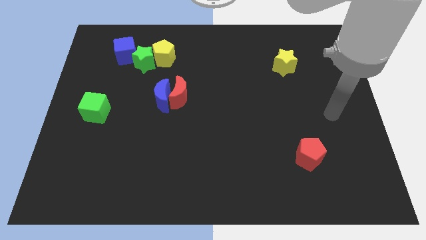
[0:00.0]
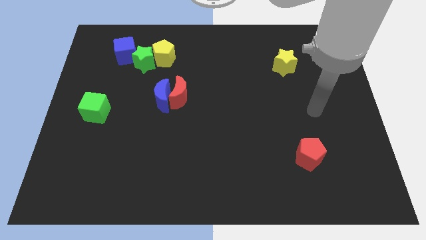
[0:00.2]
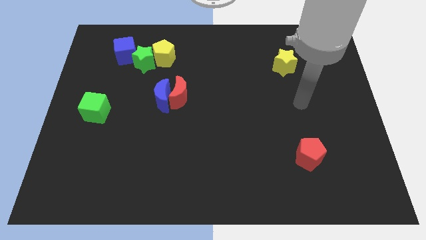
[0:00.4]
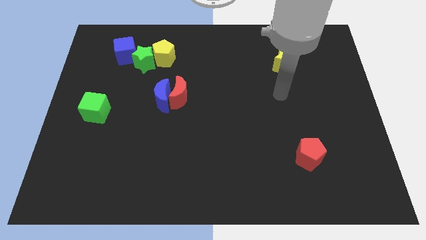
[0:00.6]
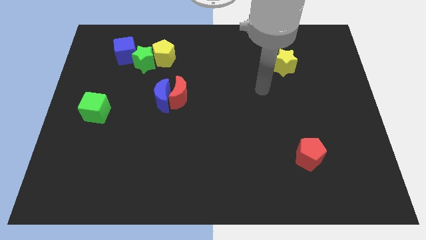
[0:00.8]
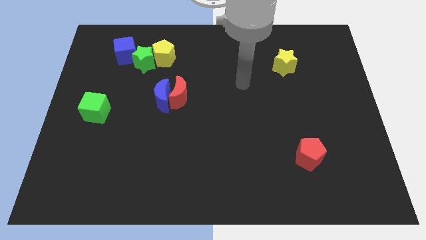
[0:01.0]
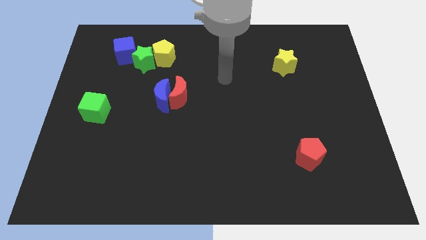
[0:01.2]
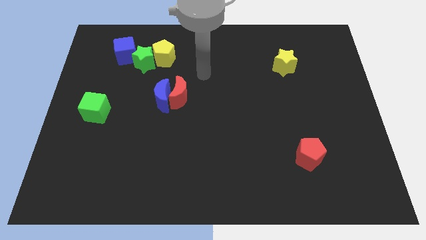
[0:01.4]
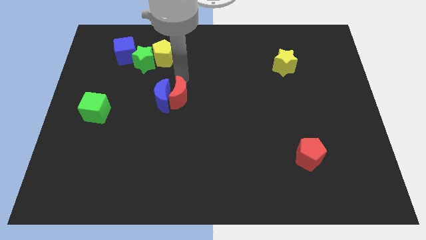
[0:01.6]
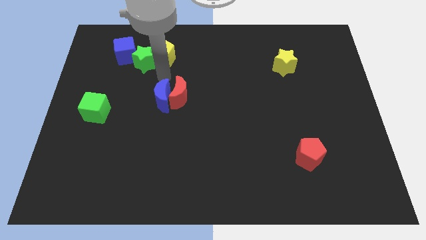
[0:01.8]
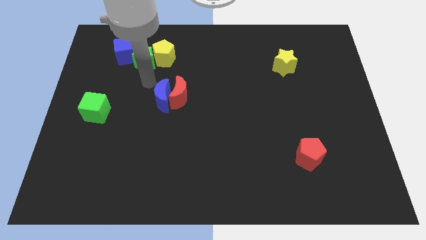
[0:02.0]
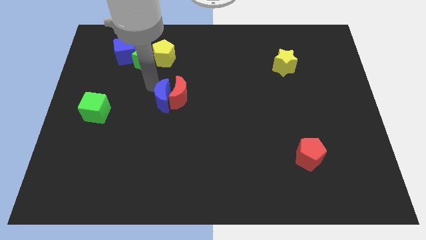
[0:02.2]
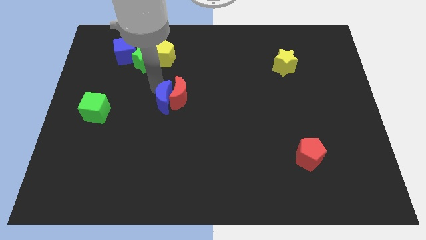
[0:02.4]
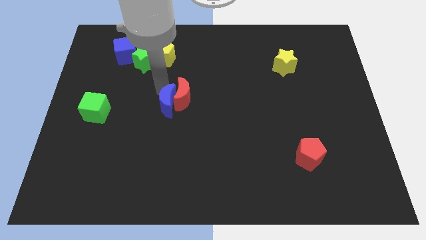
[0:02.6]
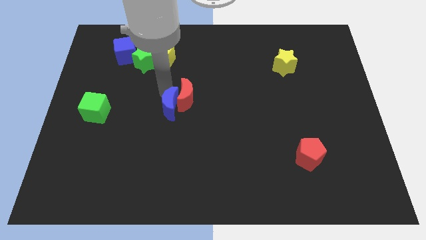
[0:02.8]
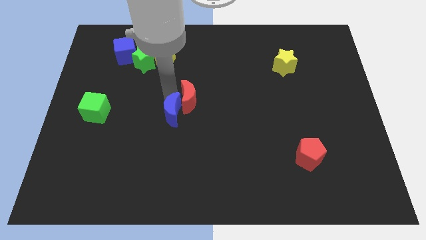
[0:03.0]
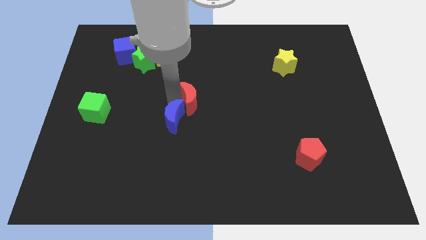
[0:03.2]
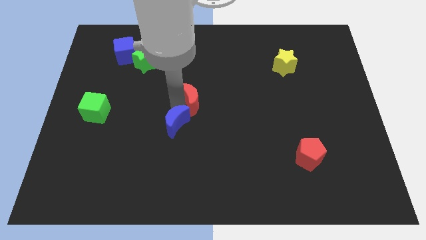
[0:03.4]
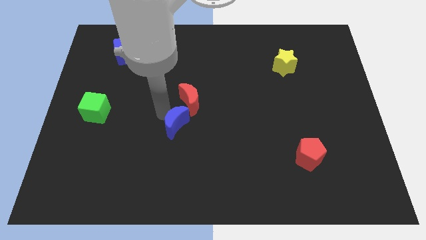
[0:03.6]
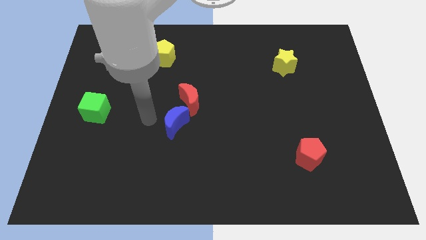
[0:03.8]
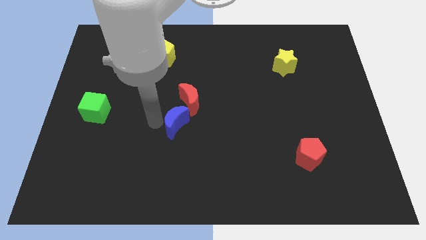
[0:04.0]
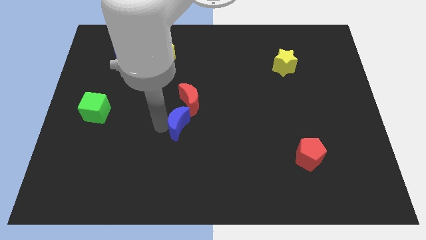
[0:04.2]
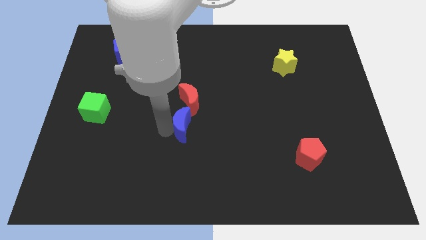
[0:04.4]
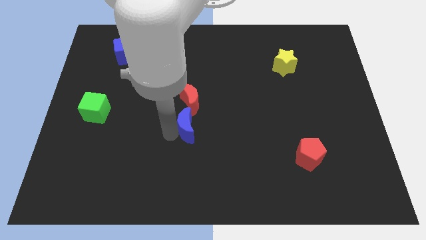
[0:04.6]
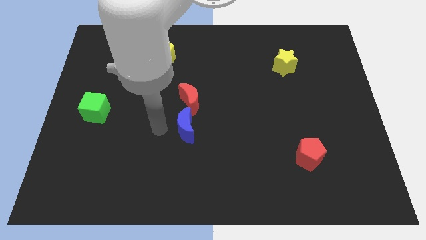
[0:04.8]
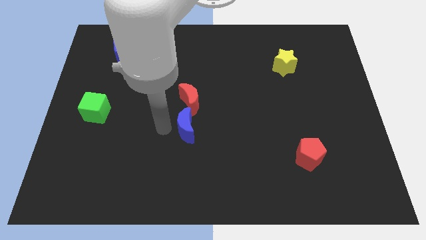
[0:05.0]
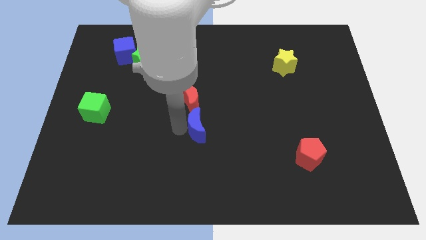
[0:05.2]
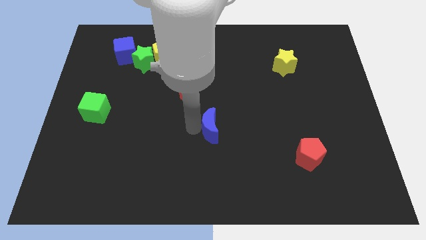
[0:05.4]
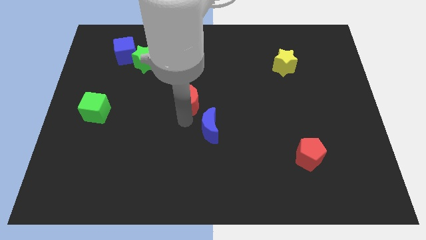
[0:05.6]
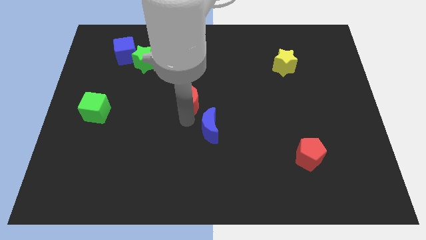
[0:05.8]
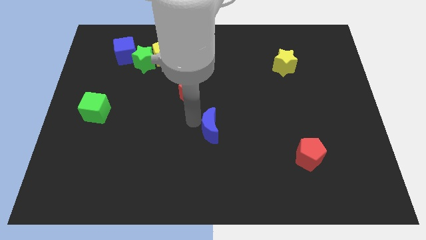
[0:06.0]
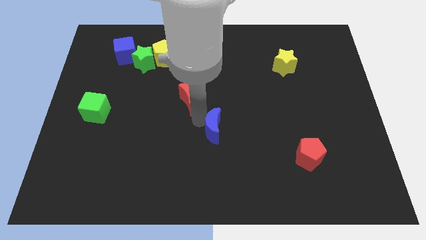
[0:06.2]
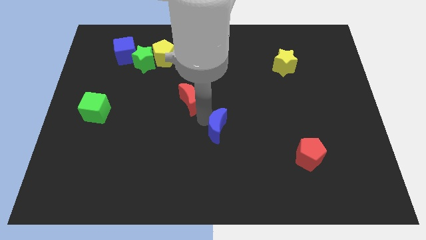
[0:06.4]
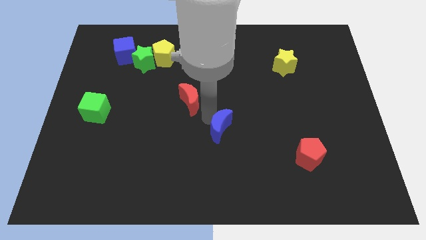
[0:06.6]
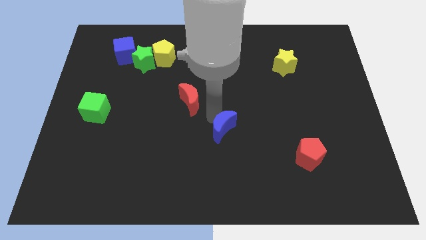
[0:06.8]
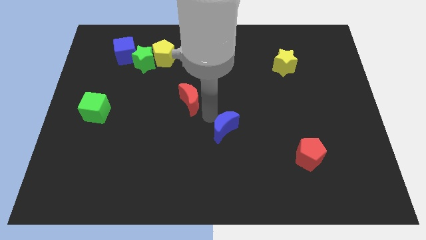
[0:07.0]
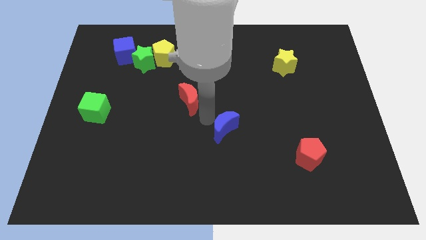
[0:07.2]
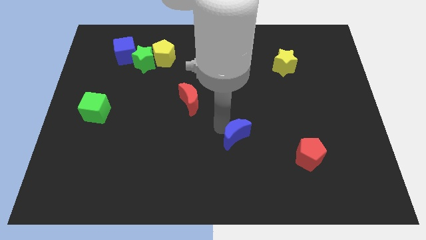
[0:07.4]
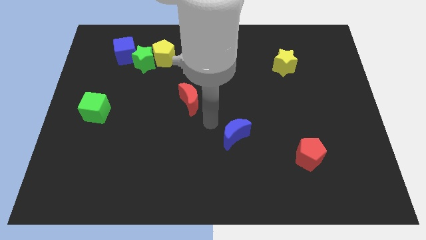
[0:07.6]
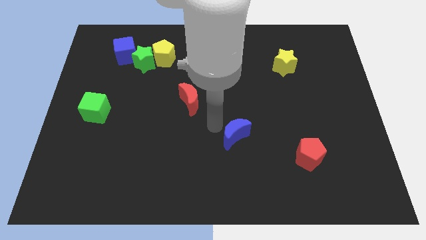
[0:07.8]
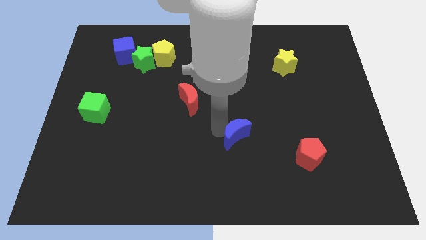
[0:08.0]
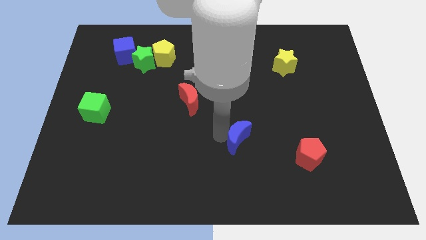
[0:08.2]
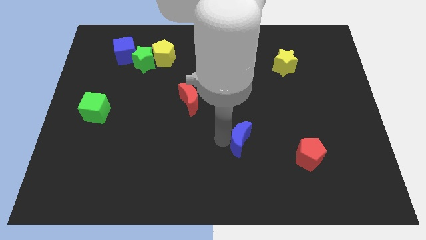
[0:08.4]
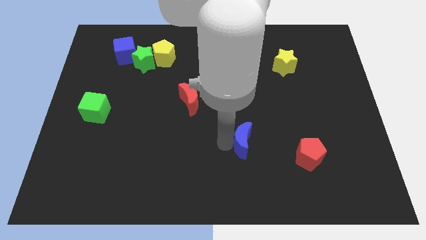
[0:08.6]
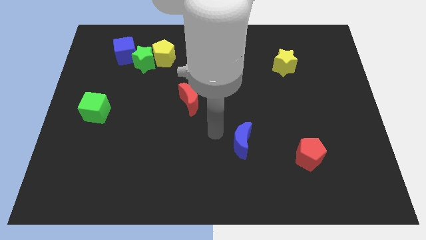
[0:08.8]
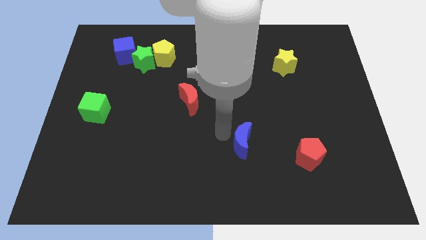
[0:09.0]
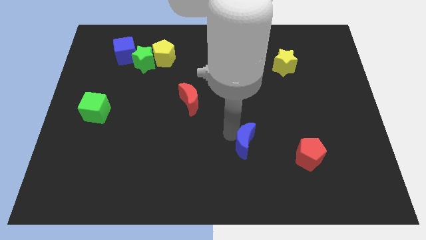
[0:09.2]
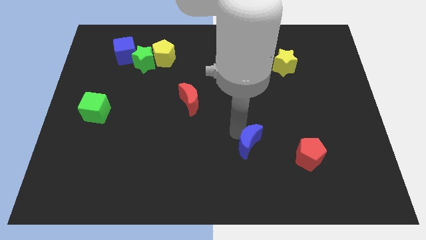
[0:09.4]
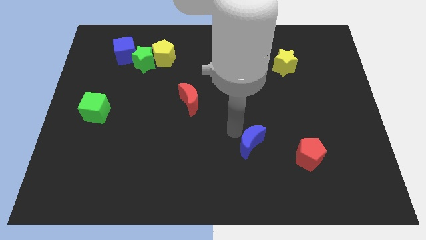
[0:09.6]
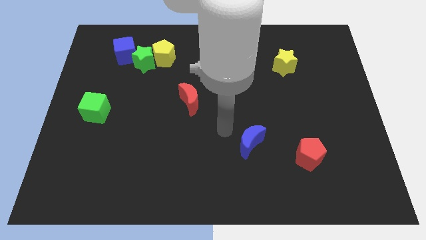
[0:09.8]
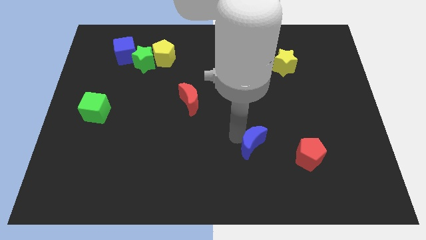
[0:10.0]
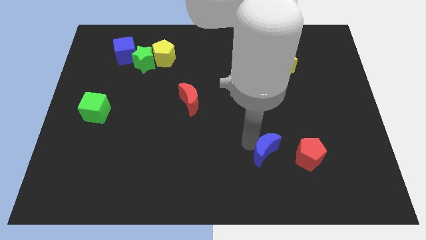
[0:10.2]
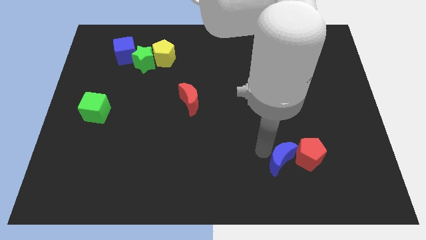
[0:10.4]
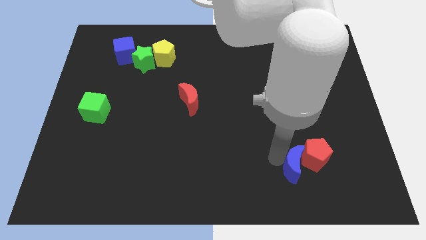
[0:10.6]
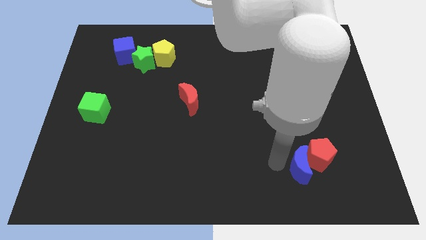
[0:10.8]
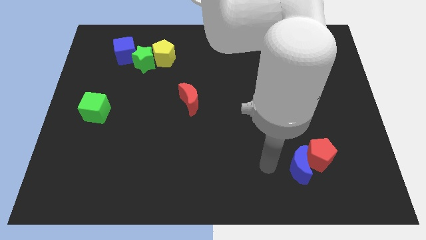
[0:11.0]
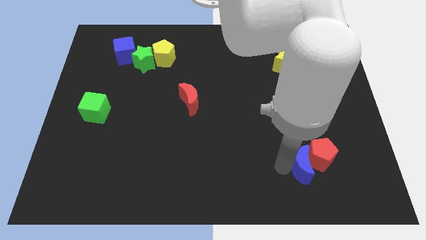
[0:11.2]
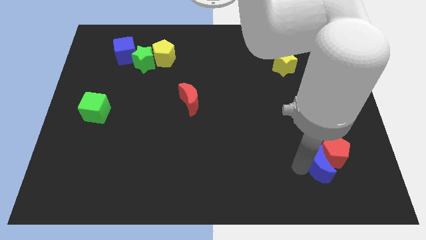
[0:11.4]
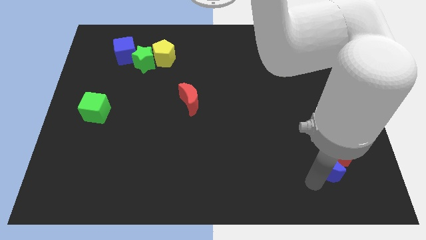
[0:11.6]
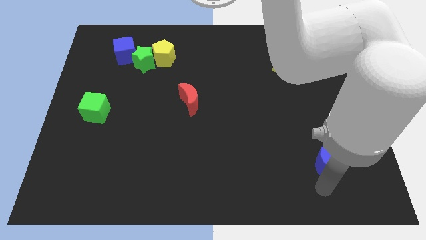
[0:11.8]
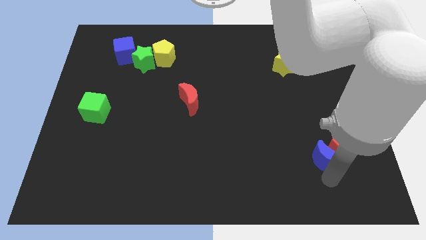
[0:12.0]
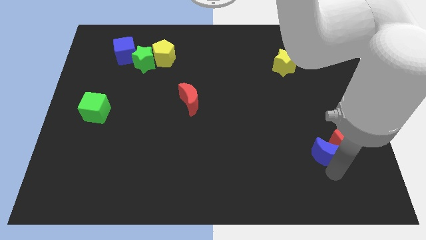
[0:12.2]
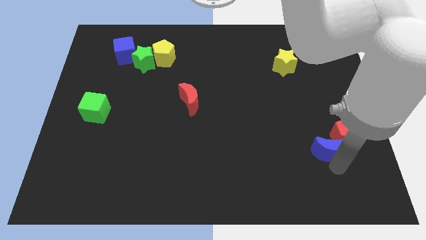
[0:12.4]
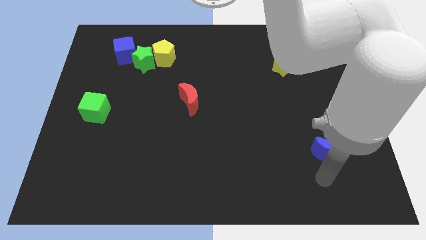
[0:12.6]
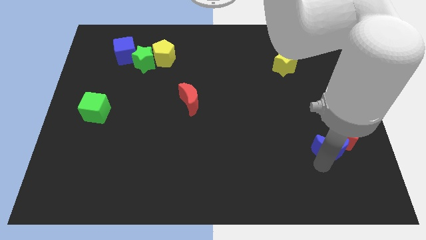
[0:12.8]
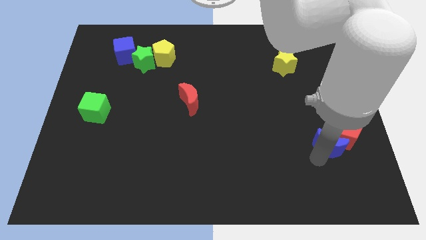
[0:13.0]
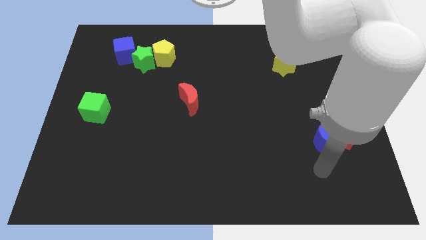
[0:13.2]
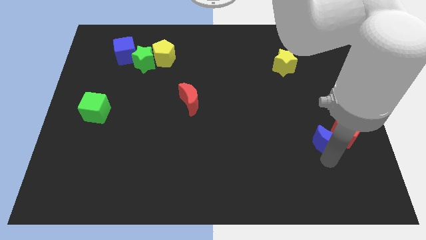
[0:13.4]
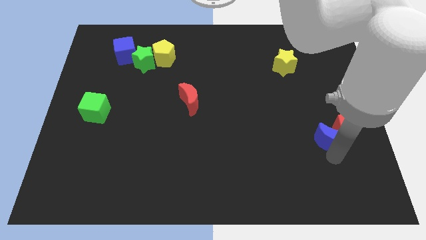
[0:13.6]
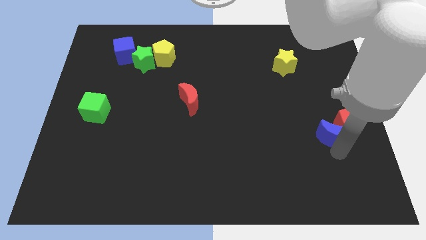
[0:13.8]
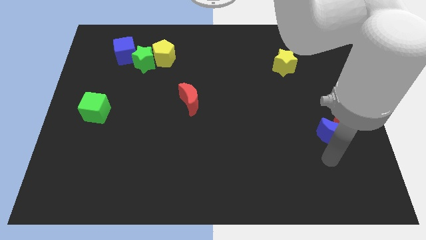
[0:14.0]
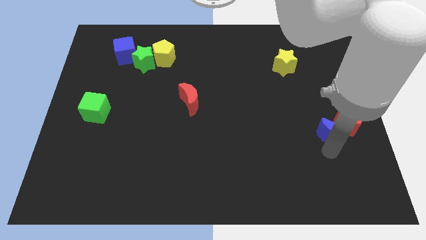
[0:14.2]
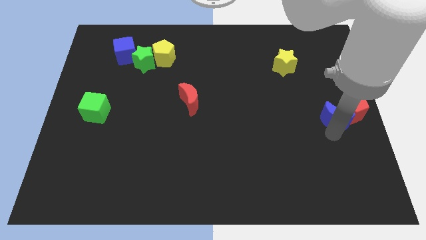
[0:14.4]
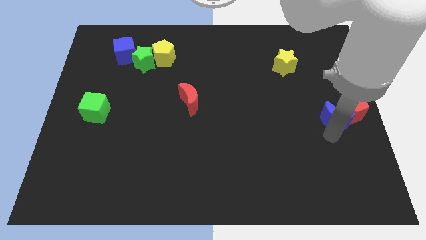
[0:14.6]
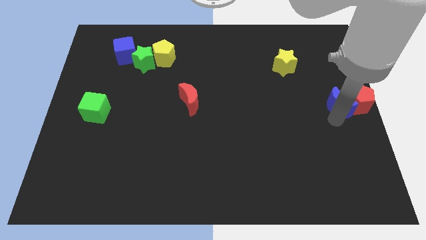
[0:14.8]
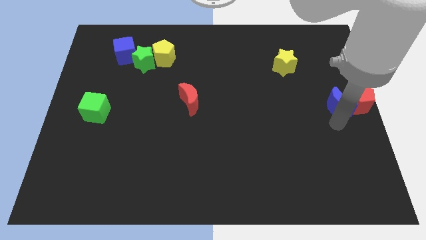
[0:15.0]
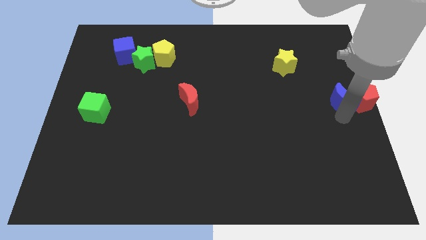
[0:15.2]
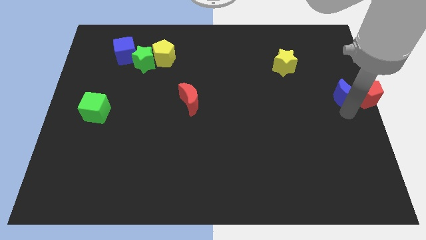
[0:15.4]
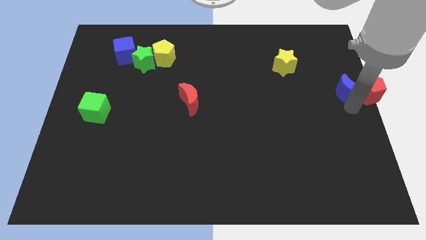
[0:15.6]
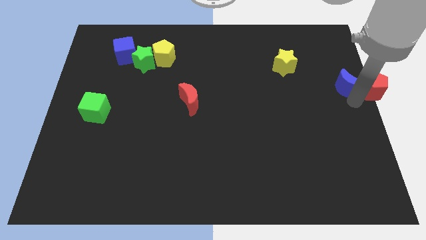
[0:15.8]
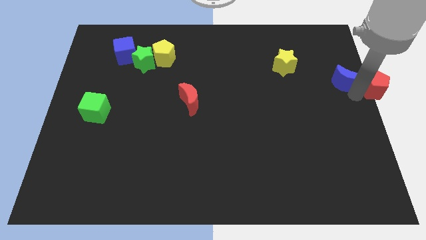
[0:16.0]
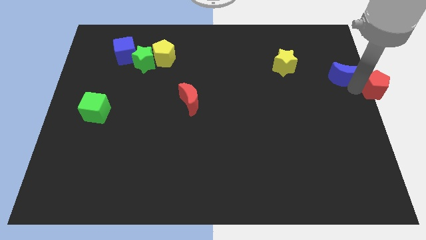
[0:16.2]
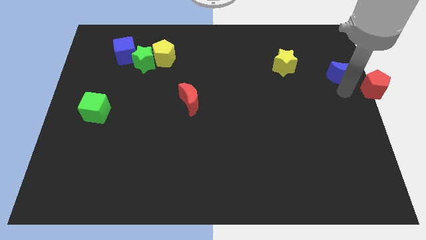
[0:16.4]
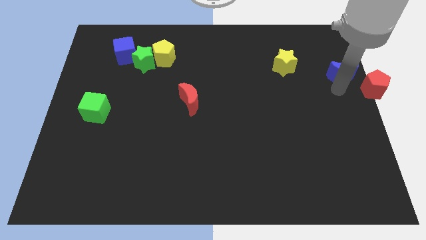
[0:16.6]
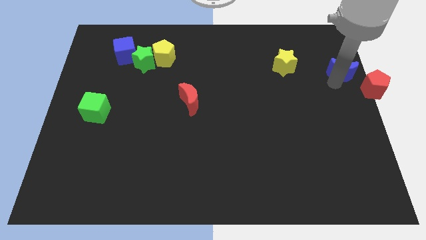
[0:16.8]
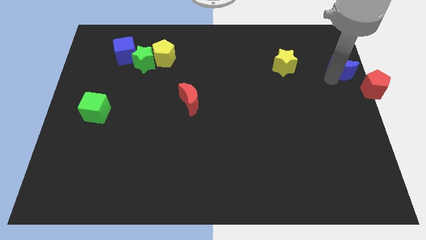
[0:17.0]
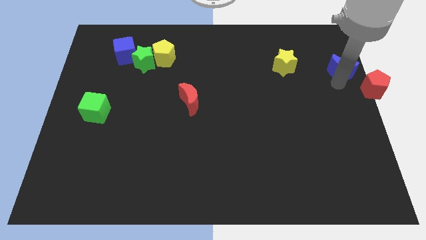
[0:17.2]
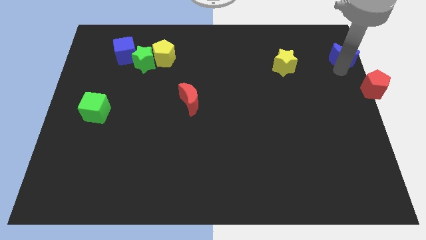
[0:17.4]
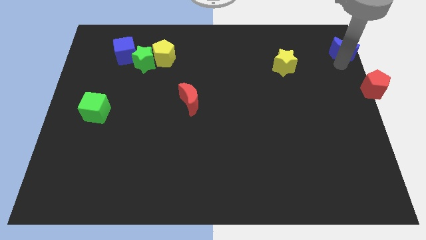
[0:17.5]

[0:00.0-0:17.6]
slide the blue moon to the upper right corner
